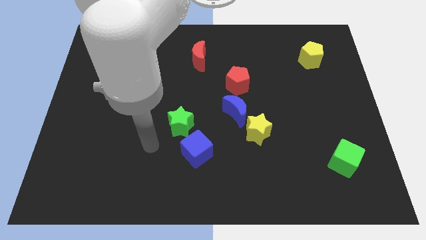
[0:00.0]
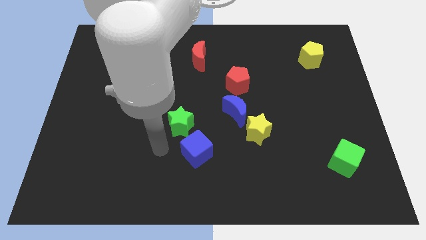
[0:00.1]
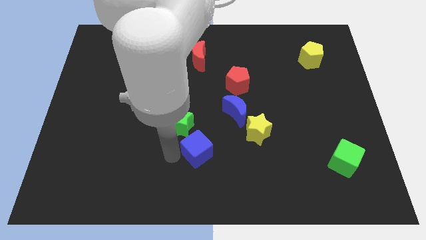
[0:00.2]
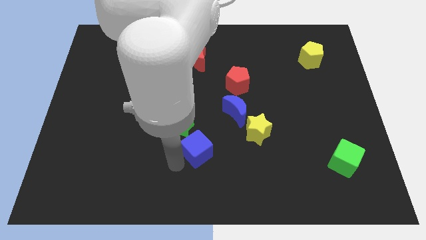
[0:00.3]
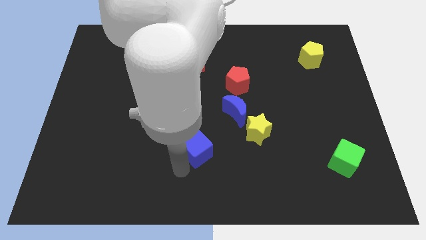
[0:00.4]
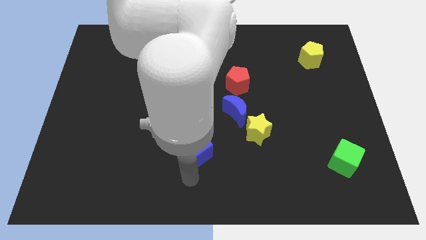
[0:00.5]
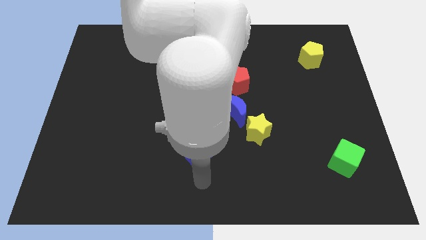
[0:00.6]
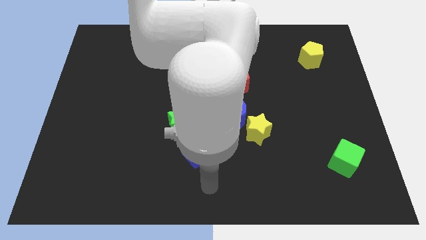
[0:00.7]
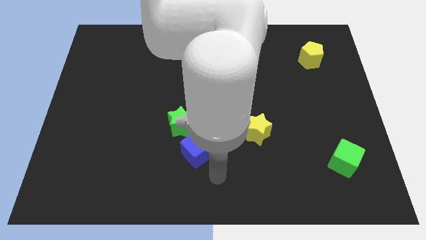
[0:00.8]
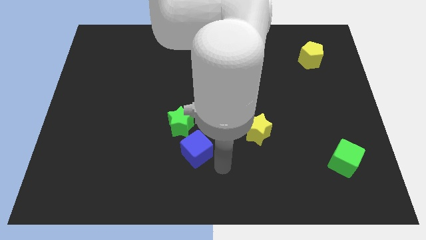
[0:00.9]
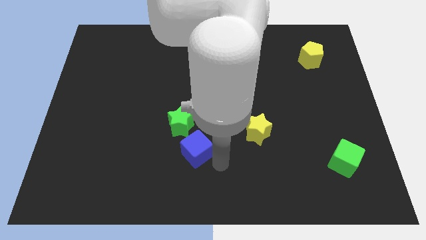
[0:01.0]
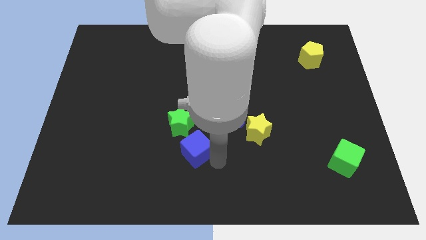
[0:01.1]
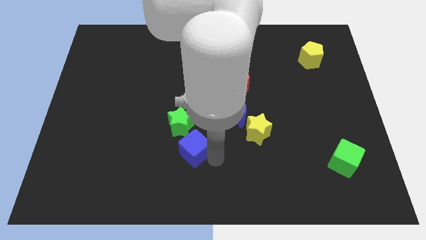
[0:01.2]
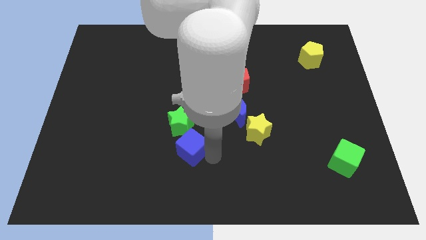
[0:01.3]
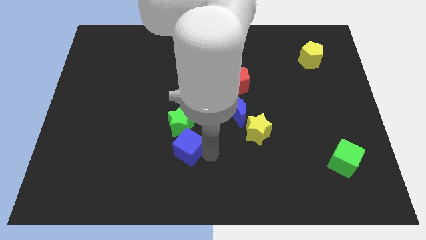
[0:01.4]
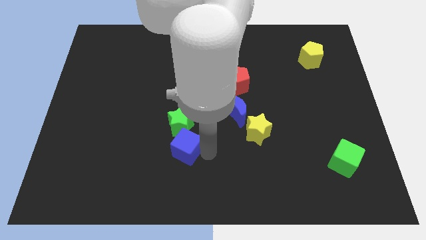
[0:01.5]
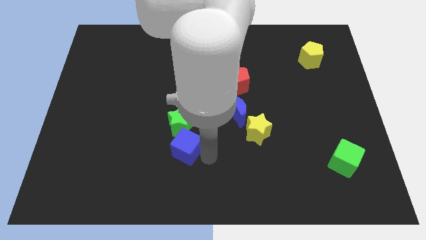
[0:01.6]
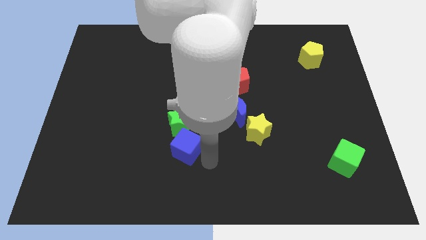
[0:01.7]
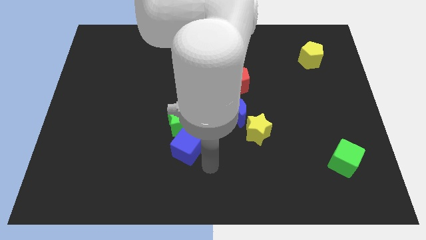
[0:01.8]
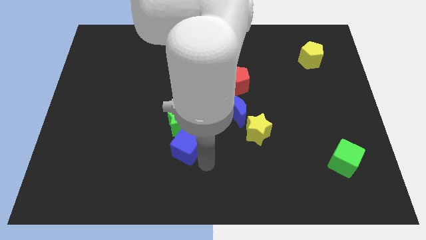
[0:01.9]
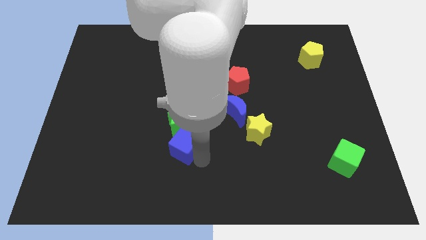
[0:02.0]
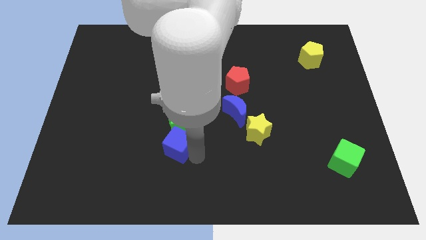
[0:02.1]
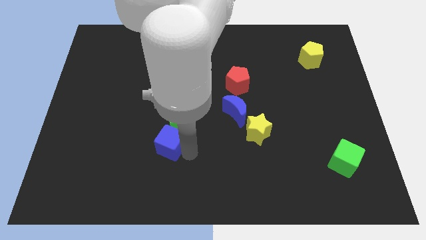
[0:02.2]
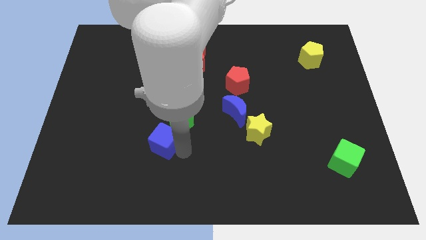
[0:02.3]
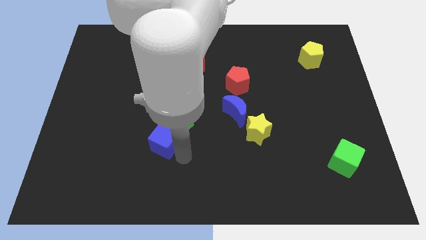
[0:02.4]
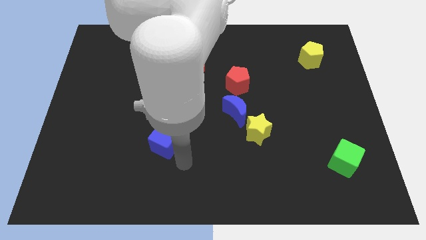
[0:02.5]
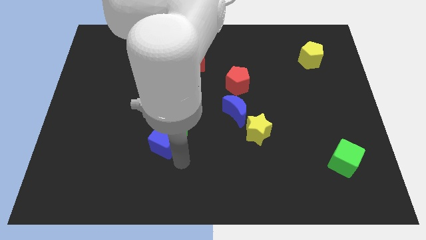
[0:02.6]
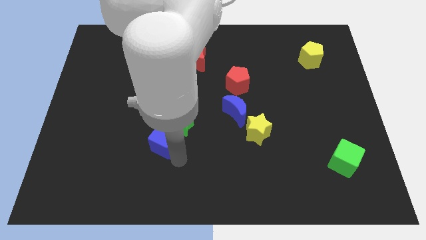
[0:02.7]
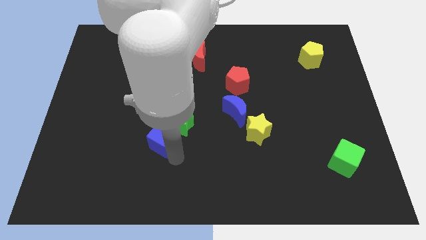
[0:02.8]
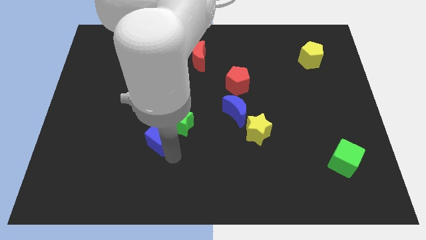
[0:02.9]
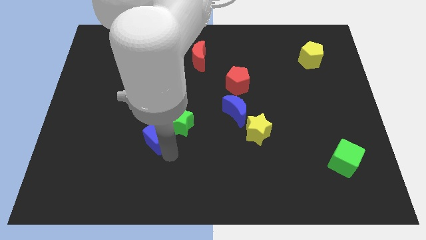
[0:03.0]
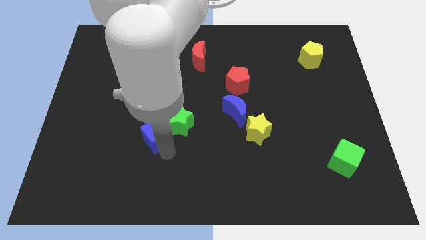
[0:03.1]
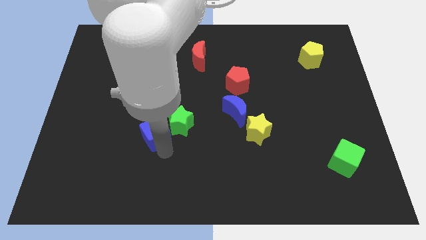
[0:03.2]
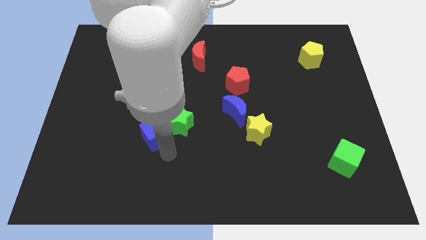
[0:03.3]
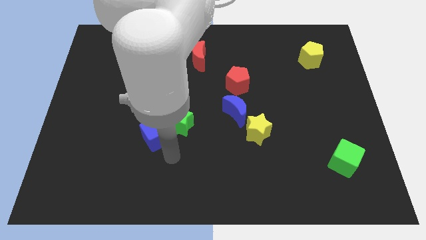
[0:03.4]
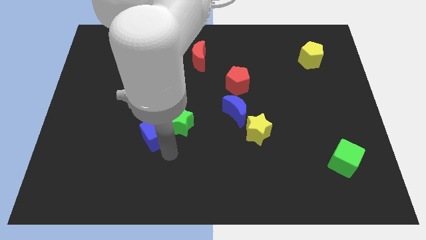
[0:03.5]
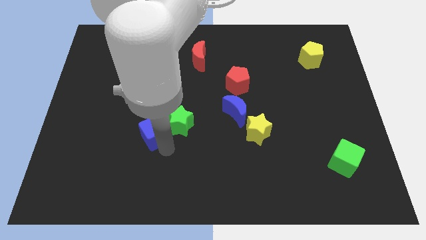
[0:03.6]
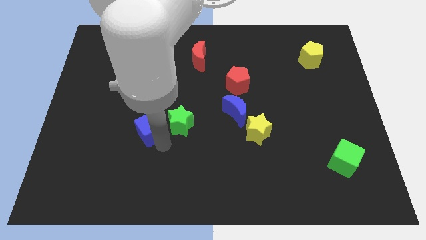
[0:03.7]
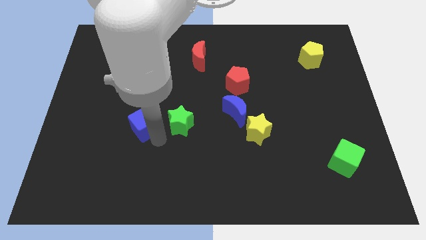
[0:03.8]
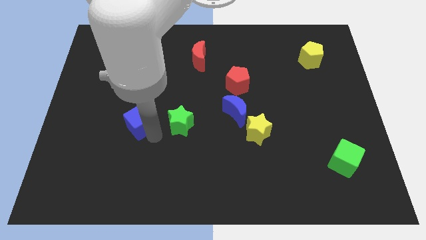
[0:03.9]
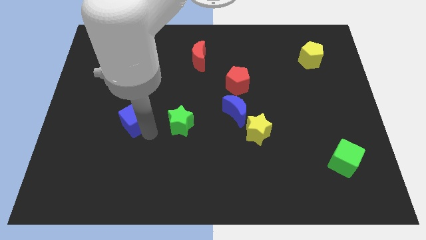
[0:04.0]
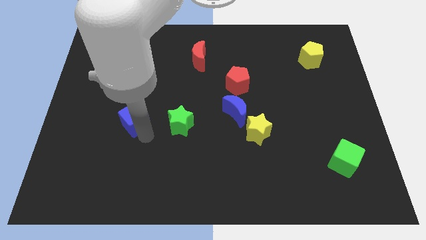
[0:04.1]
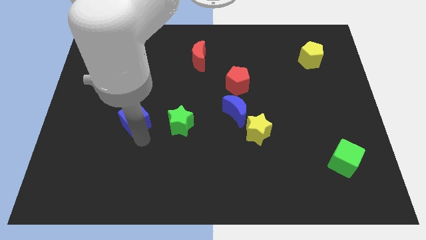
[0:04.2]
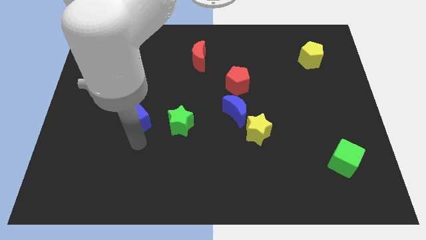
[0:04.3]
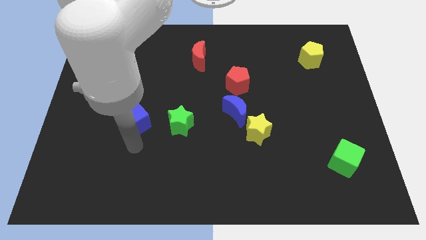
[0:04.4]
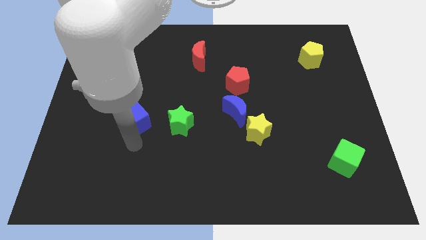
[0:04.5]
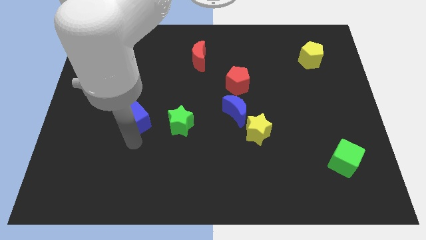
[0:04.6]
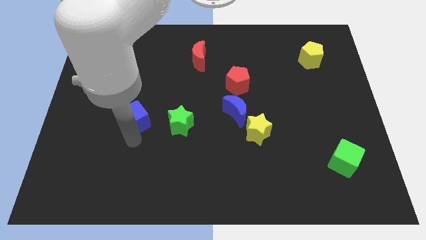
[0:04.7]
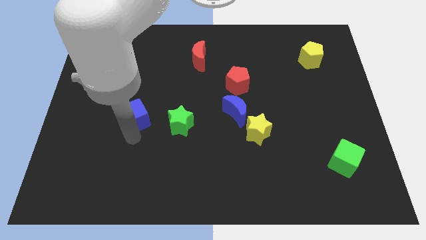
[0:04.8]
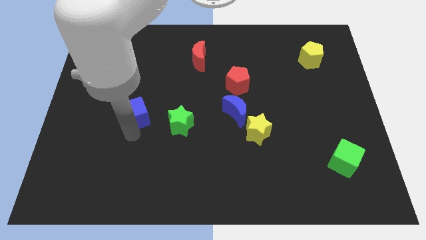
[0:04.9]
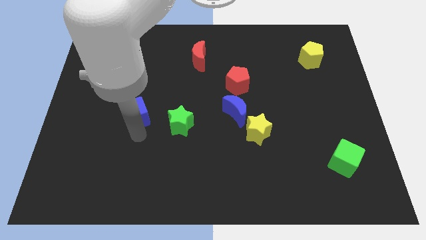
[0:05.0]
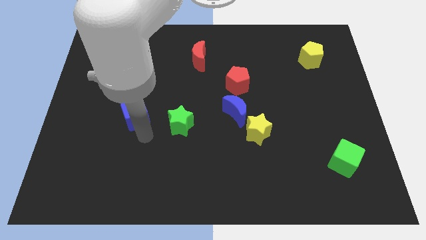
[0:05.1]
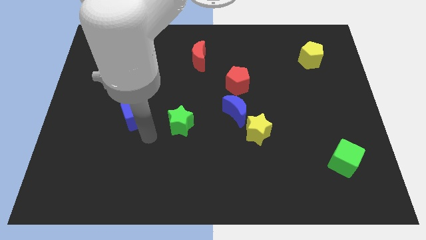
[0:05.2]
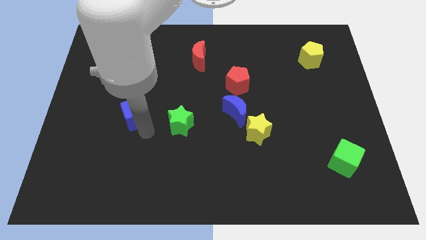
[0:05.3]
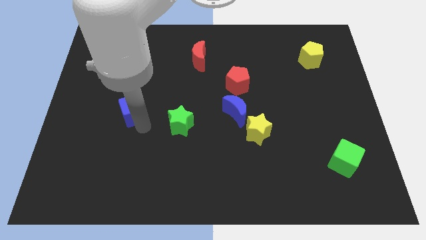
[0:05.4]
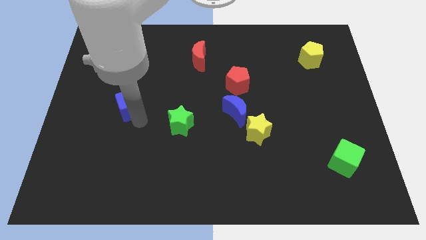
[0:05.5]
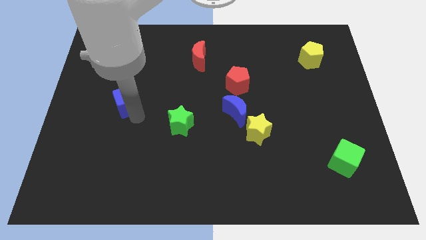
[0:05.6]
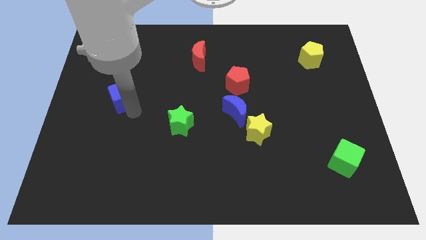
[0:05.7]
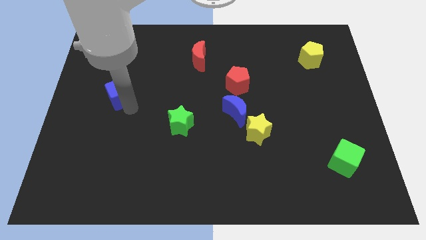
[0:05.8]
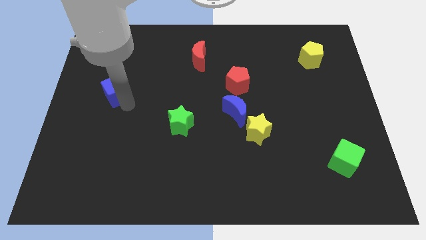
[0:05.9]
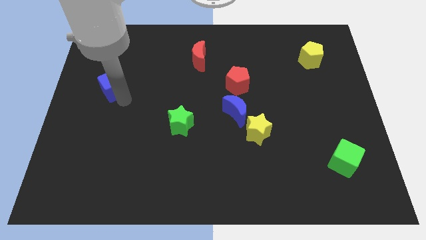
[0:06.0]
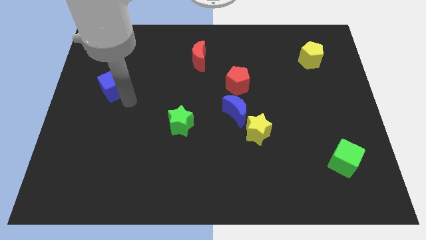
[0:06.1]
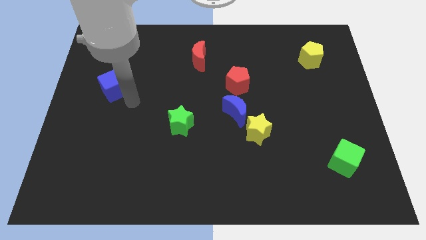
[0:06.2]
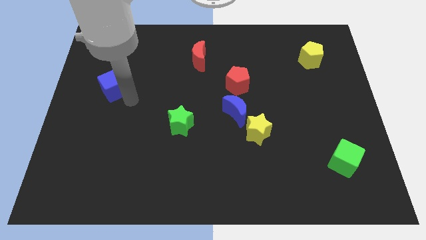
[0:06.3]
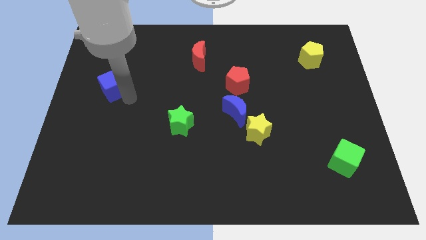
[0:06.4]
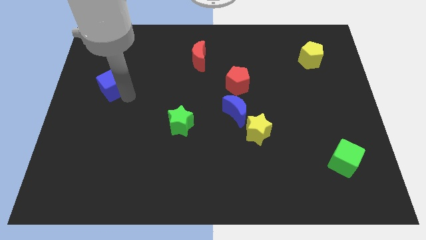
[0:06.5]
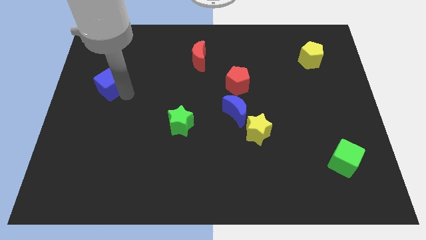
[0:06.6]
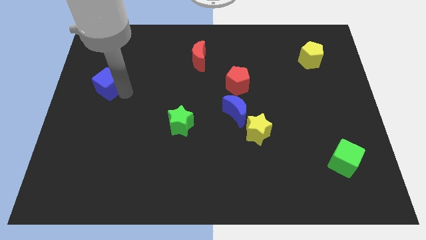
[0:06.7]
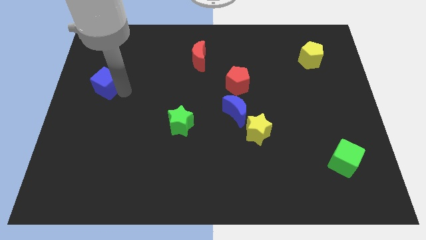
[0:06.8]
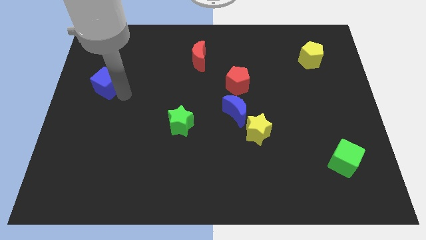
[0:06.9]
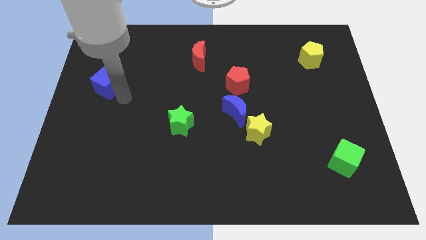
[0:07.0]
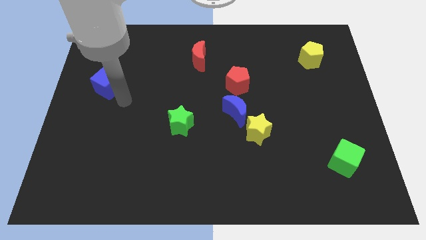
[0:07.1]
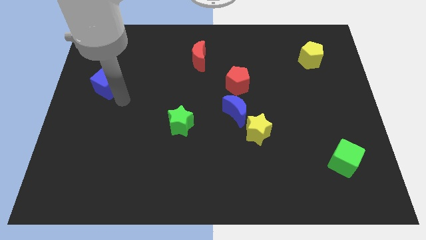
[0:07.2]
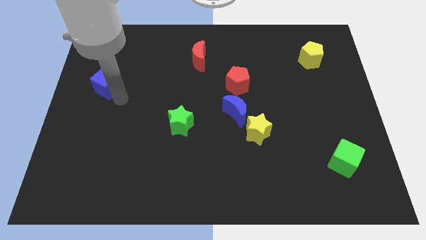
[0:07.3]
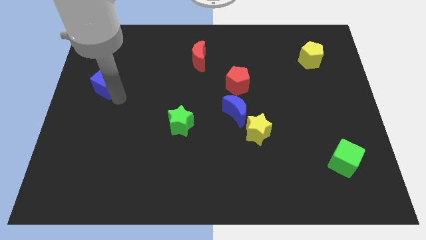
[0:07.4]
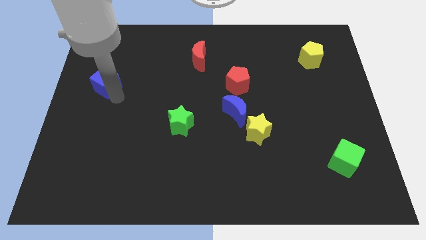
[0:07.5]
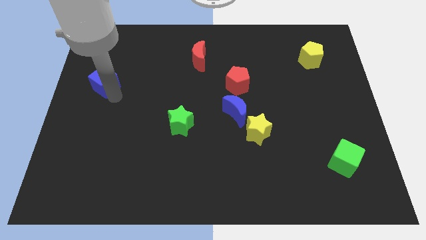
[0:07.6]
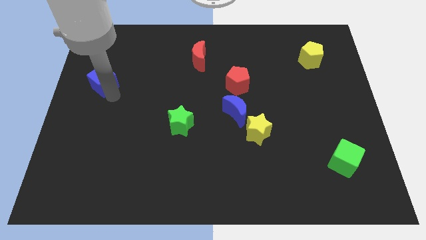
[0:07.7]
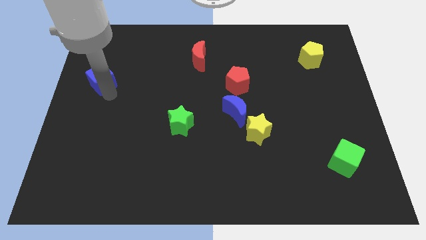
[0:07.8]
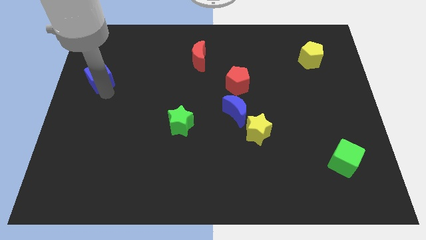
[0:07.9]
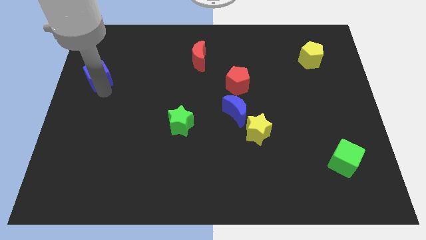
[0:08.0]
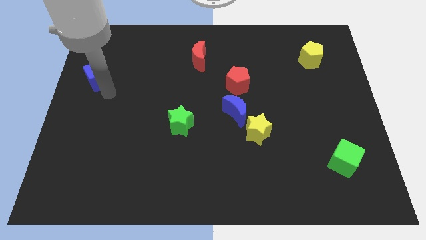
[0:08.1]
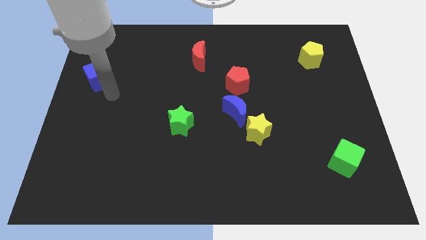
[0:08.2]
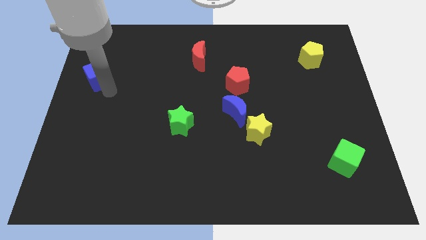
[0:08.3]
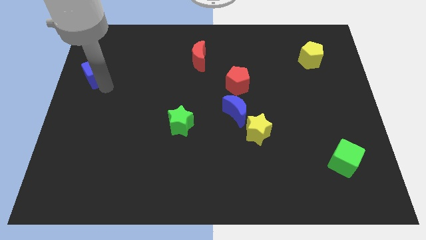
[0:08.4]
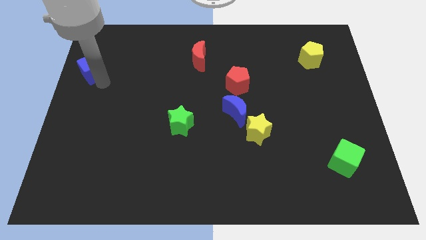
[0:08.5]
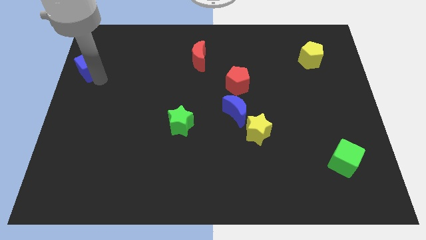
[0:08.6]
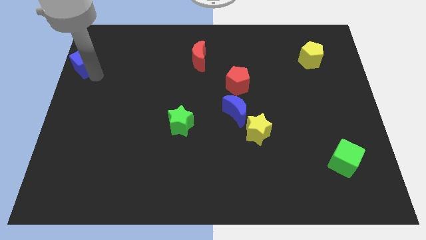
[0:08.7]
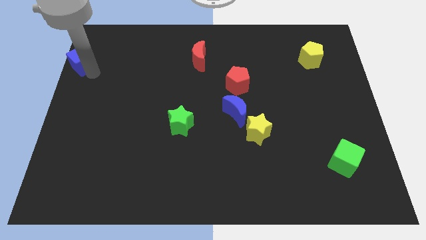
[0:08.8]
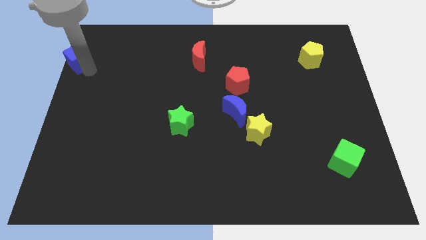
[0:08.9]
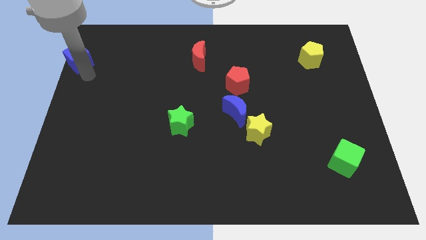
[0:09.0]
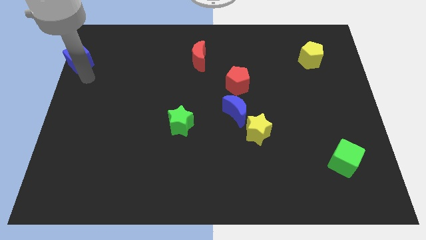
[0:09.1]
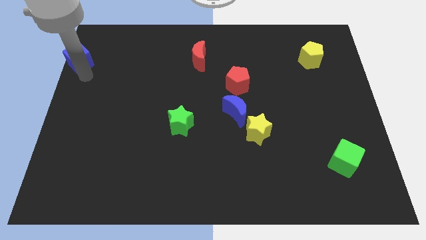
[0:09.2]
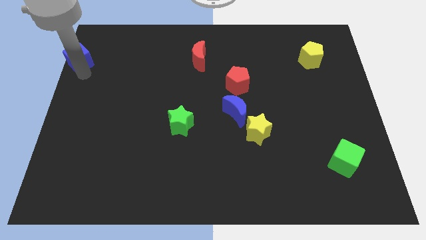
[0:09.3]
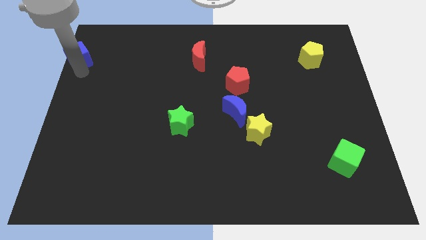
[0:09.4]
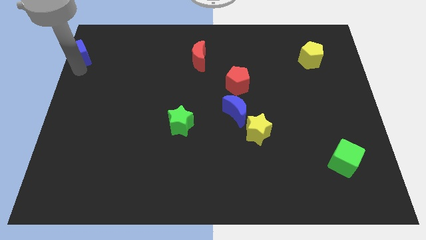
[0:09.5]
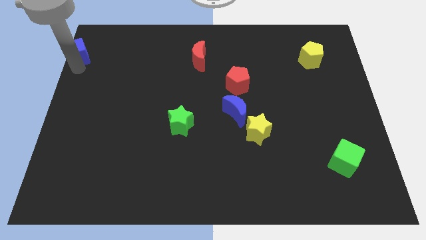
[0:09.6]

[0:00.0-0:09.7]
slide the blue cube to the top left corner
